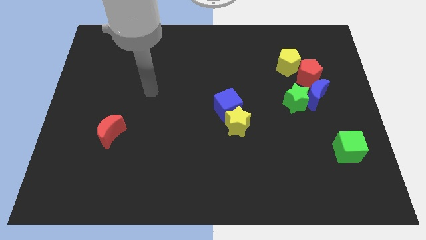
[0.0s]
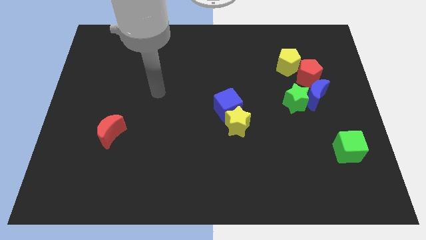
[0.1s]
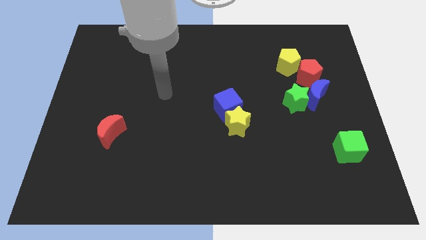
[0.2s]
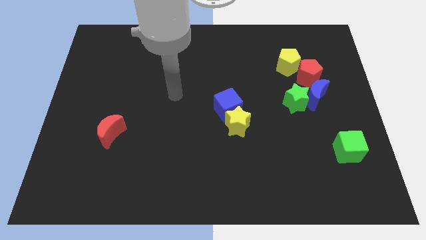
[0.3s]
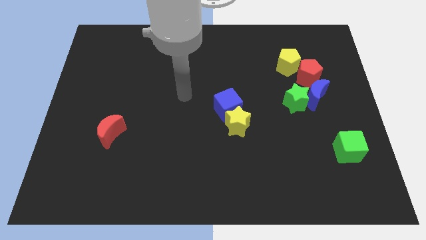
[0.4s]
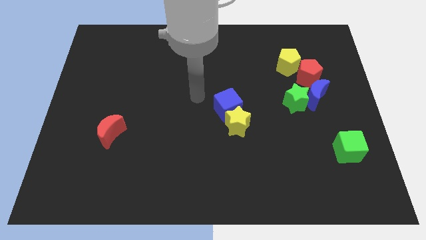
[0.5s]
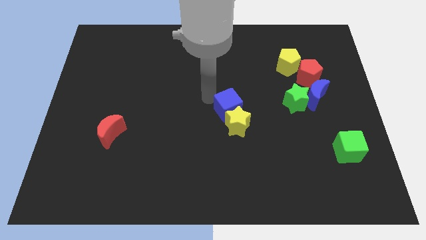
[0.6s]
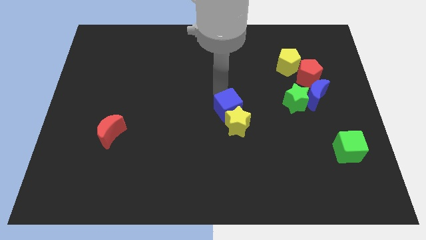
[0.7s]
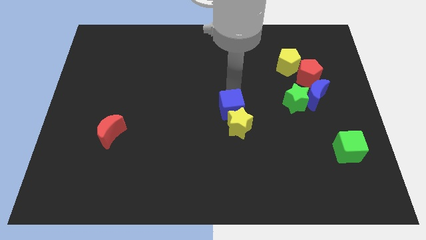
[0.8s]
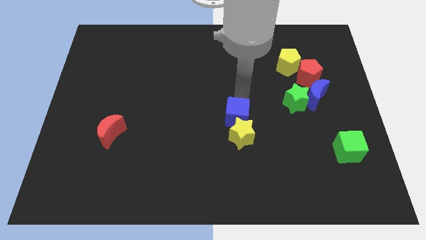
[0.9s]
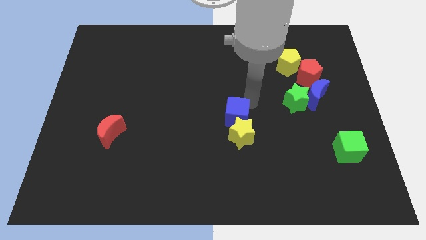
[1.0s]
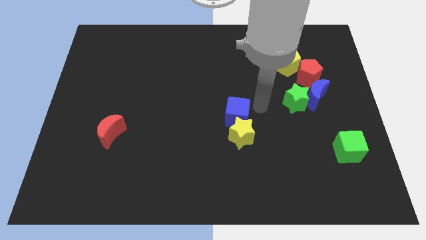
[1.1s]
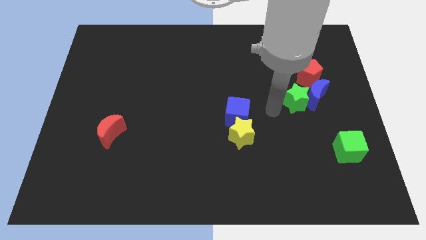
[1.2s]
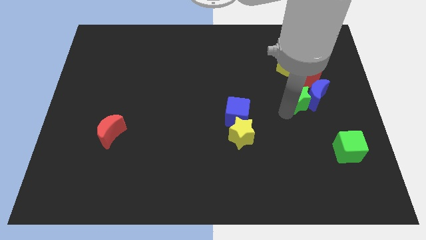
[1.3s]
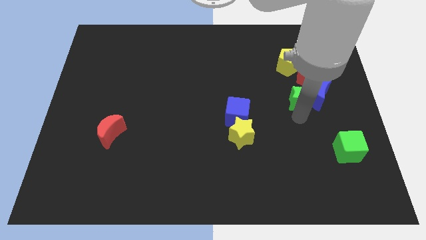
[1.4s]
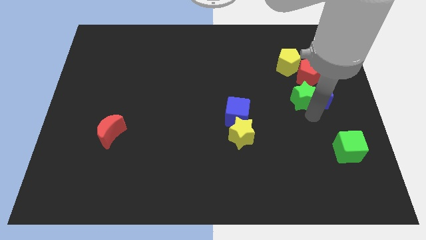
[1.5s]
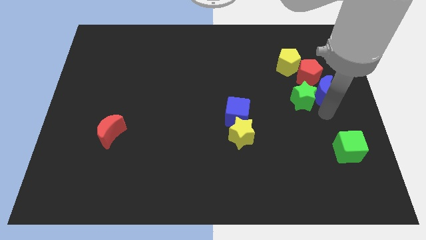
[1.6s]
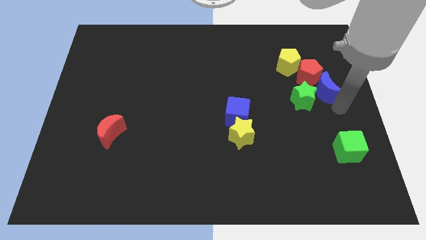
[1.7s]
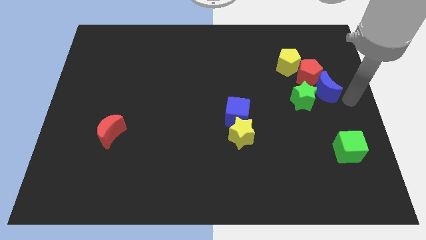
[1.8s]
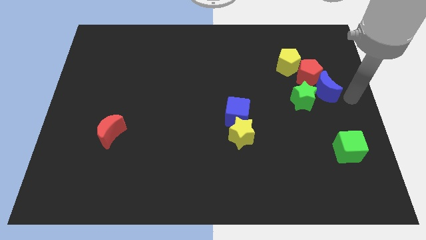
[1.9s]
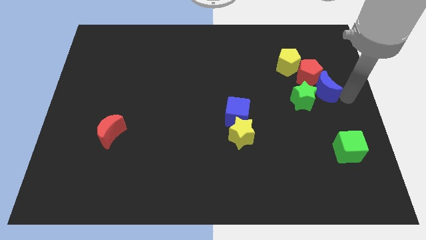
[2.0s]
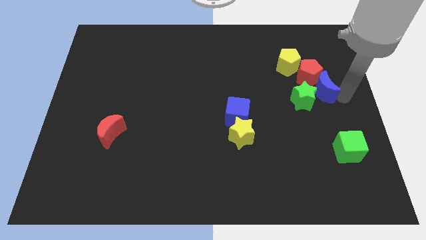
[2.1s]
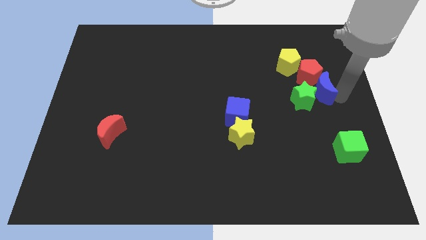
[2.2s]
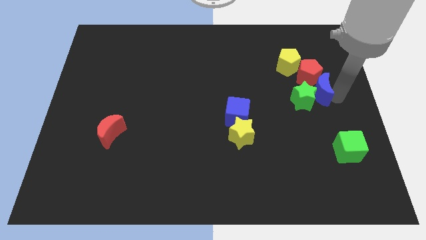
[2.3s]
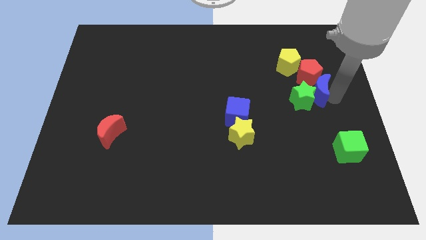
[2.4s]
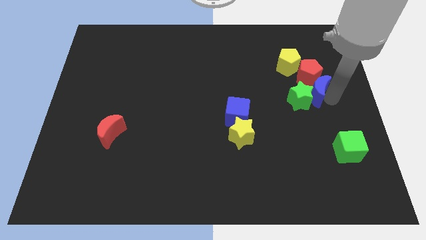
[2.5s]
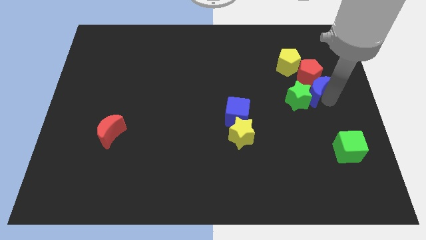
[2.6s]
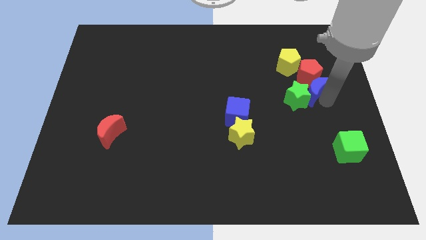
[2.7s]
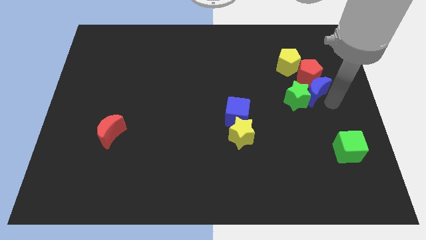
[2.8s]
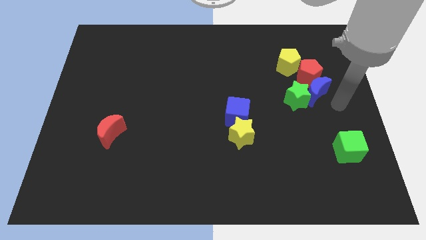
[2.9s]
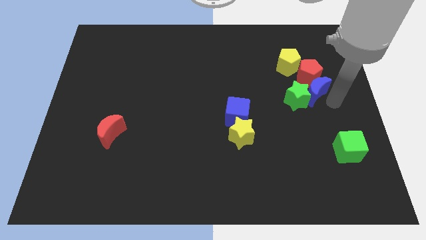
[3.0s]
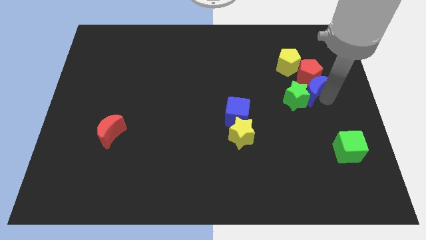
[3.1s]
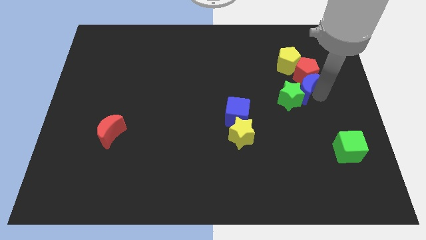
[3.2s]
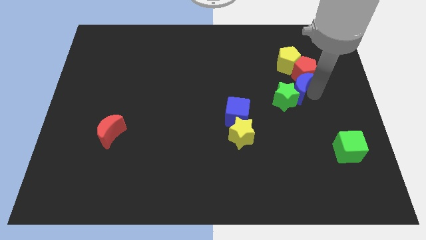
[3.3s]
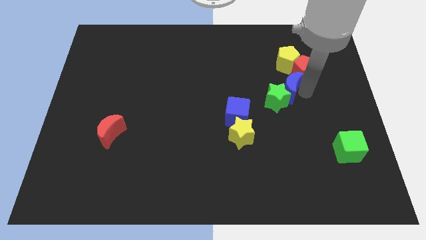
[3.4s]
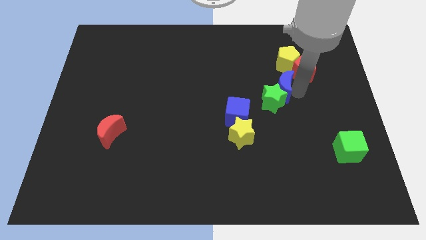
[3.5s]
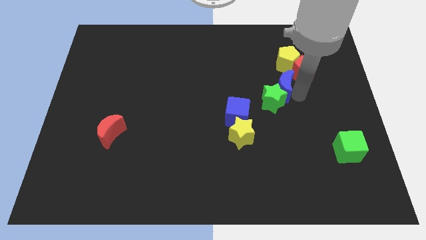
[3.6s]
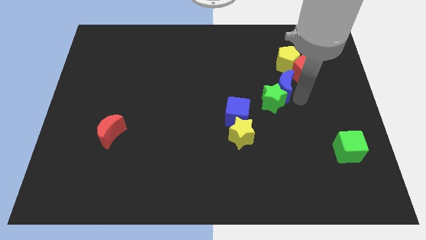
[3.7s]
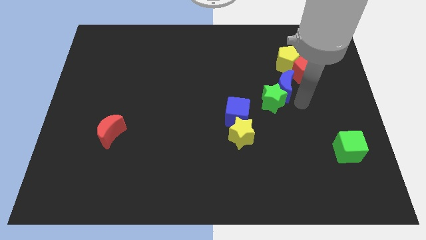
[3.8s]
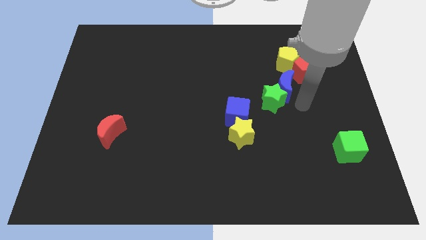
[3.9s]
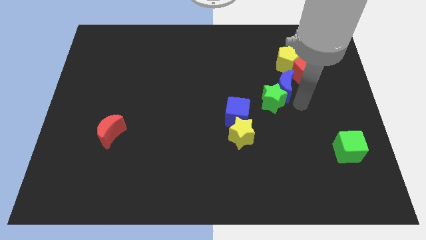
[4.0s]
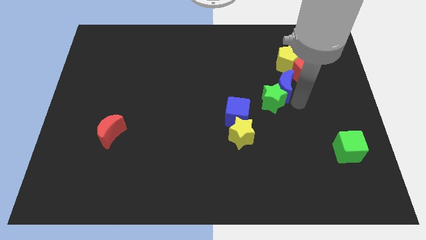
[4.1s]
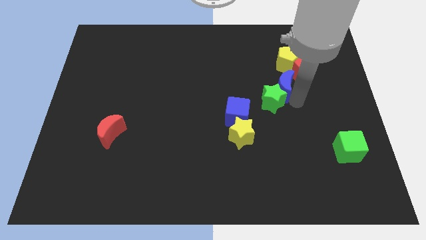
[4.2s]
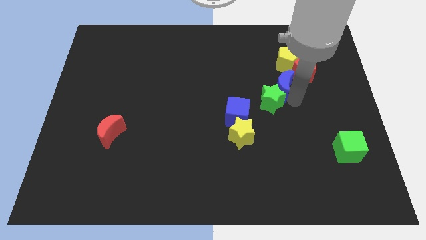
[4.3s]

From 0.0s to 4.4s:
move the blue moon up and then left a little

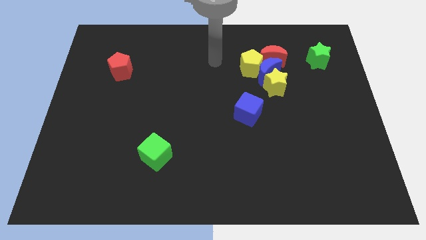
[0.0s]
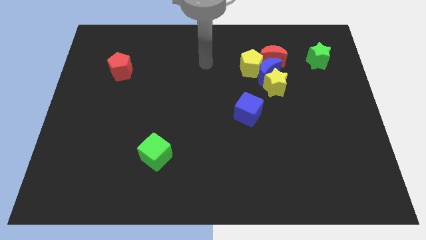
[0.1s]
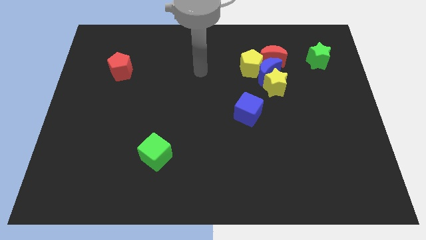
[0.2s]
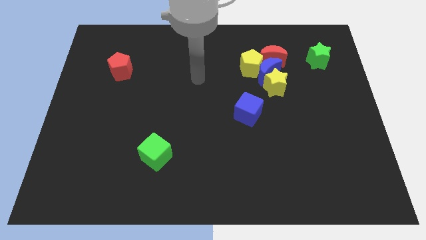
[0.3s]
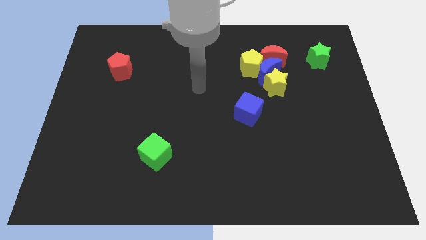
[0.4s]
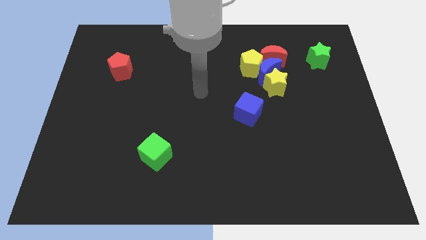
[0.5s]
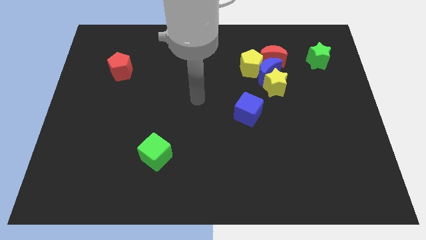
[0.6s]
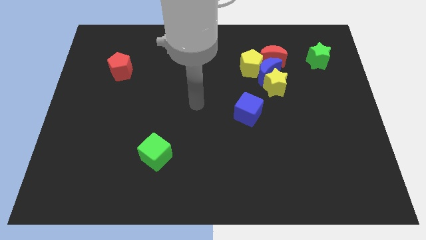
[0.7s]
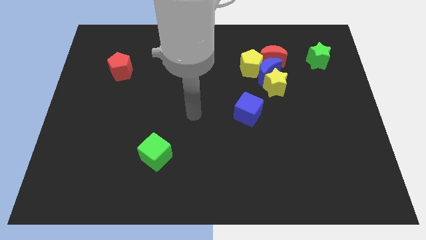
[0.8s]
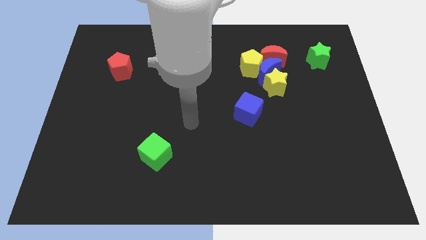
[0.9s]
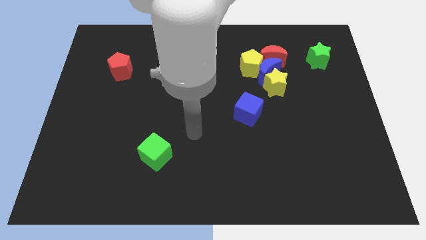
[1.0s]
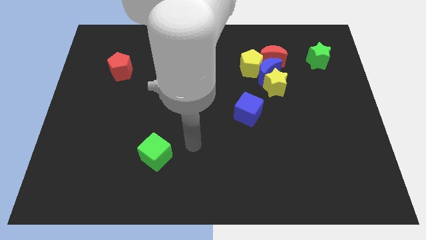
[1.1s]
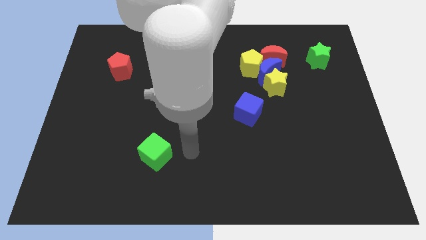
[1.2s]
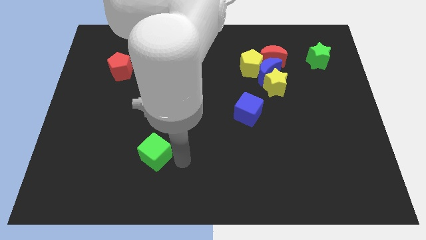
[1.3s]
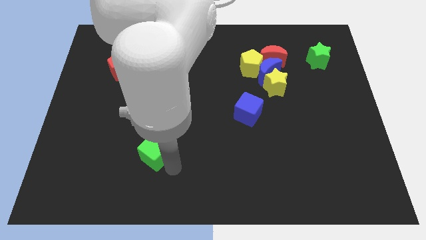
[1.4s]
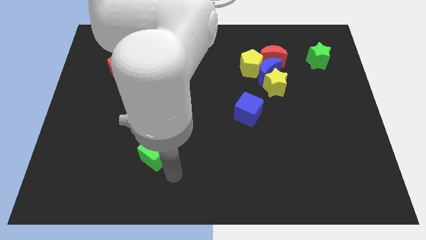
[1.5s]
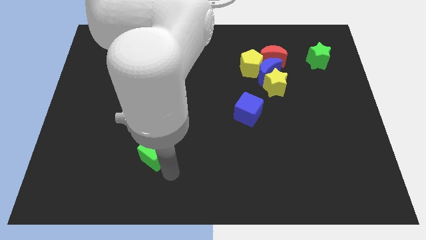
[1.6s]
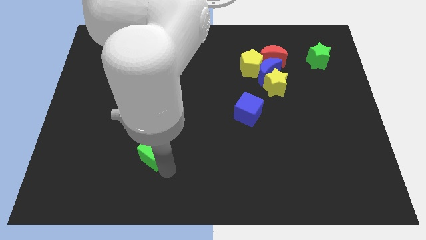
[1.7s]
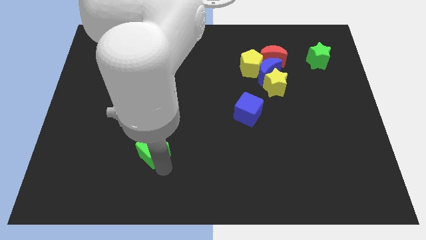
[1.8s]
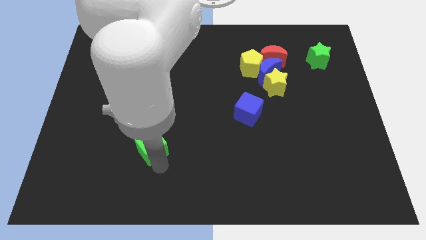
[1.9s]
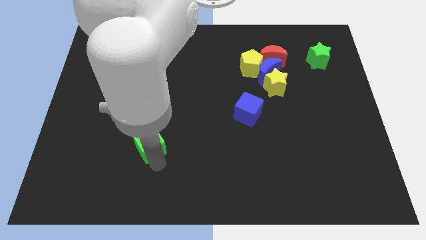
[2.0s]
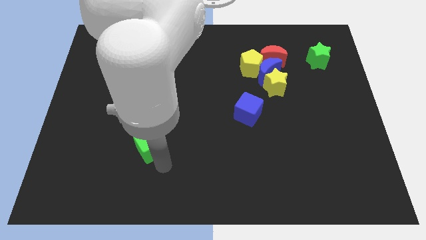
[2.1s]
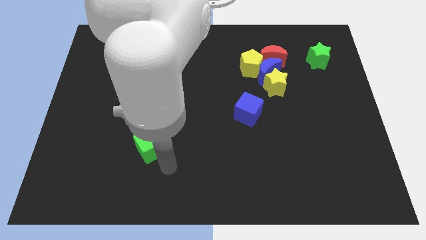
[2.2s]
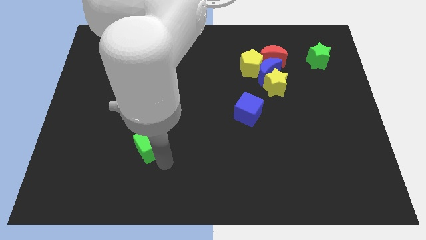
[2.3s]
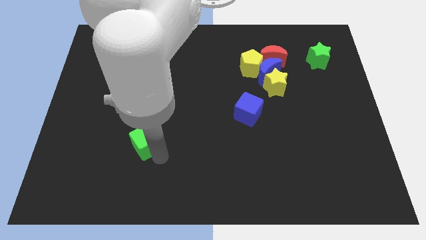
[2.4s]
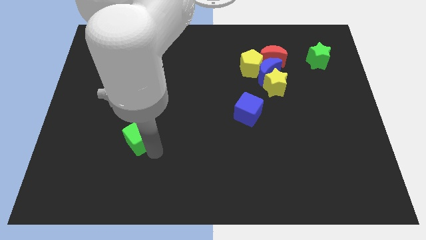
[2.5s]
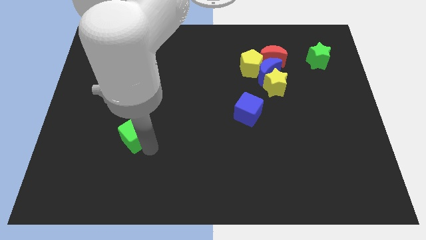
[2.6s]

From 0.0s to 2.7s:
slide the green cube upwards and then left somewhat

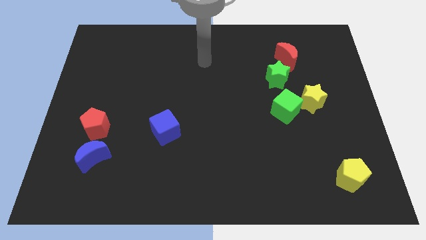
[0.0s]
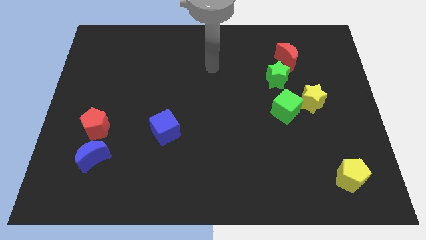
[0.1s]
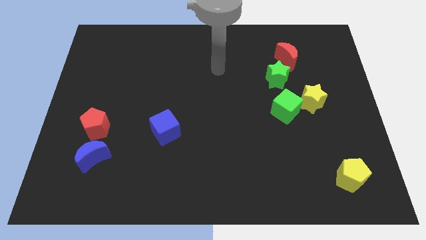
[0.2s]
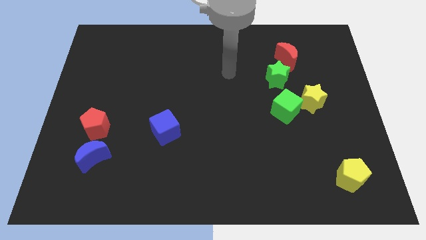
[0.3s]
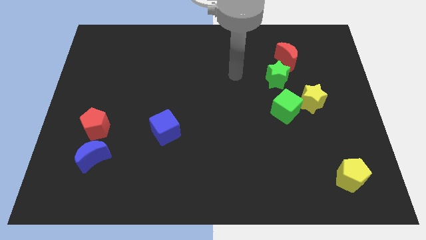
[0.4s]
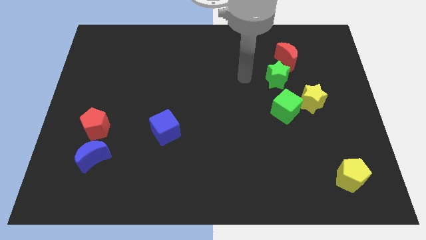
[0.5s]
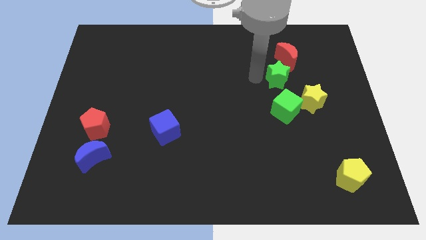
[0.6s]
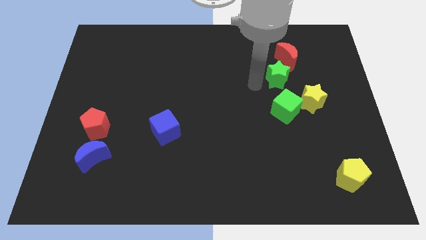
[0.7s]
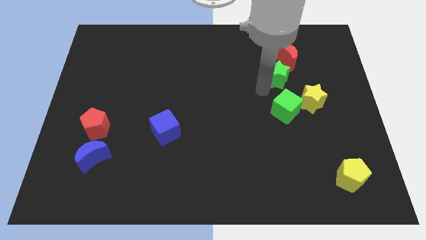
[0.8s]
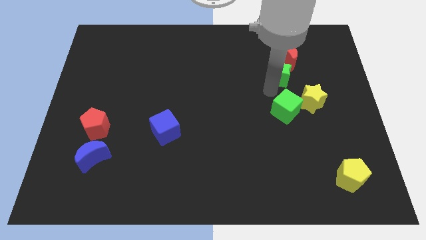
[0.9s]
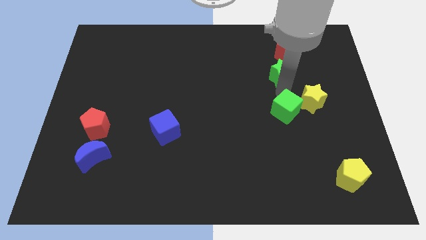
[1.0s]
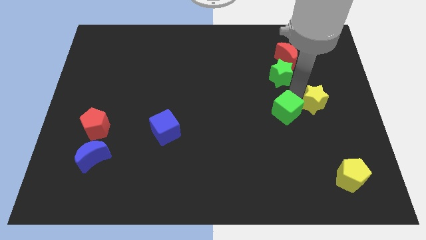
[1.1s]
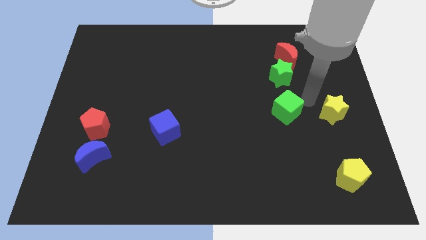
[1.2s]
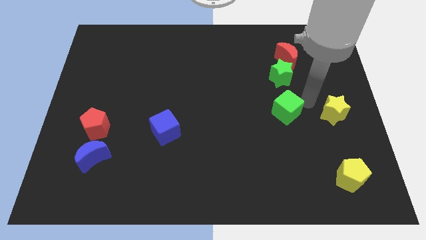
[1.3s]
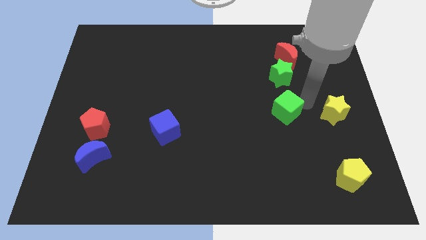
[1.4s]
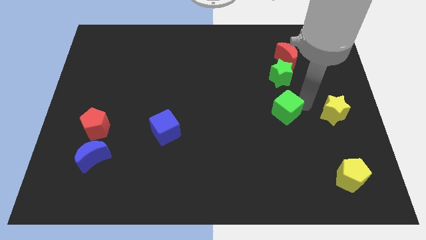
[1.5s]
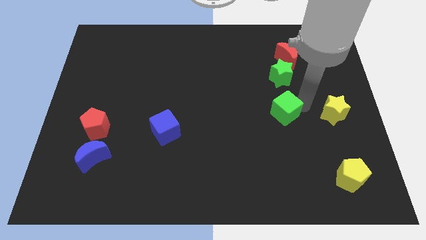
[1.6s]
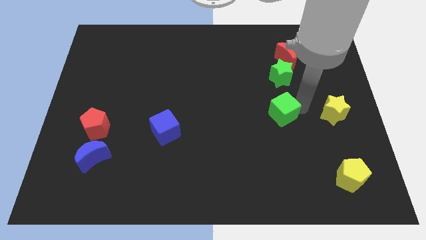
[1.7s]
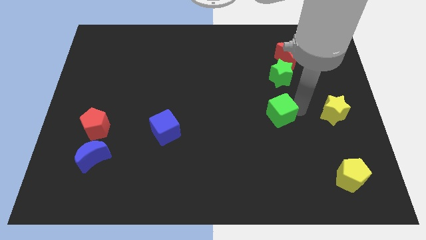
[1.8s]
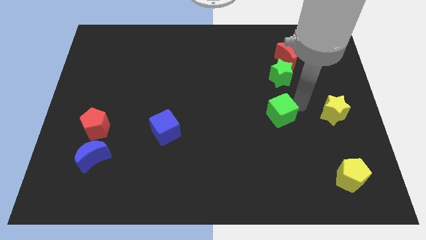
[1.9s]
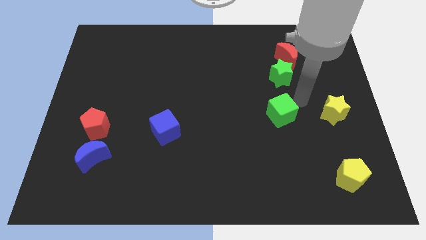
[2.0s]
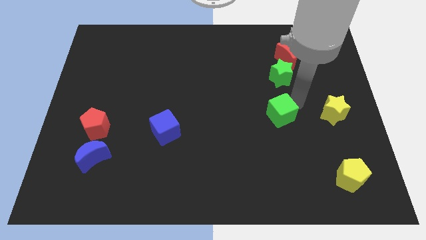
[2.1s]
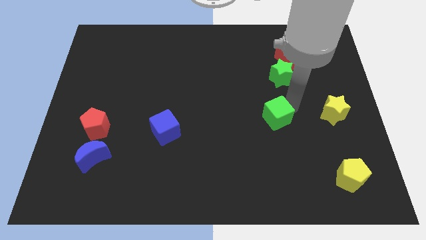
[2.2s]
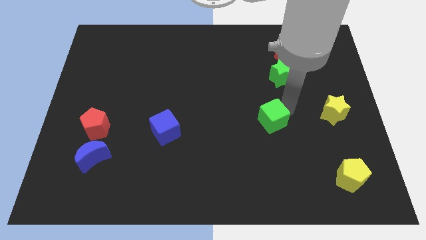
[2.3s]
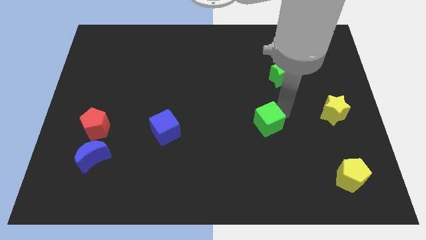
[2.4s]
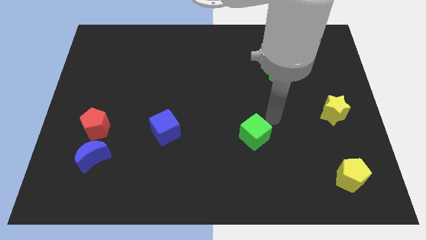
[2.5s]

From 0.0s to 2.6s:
push the green cube down and then left a little bit
